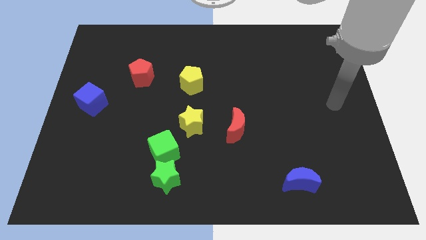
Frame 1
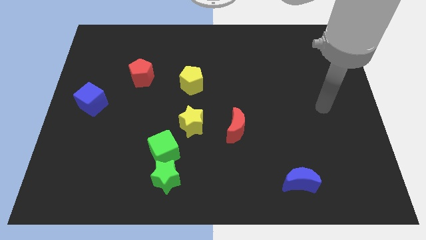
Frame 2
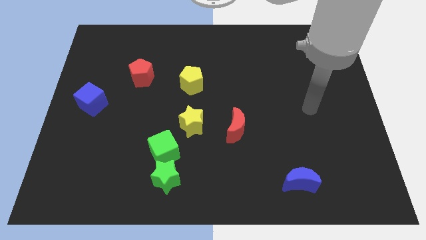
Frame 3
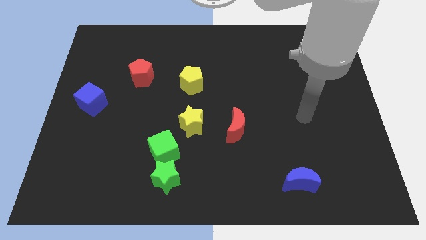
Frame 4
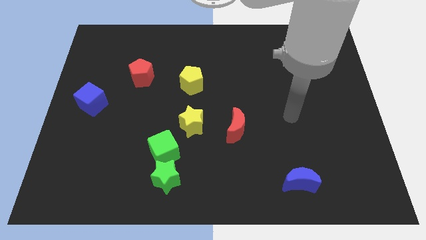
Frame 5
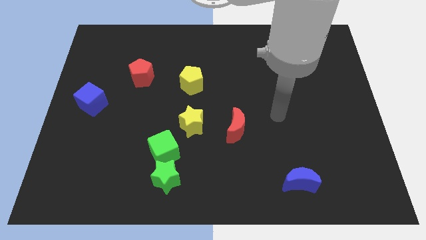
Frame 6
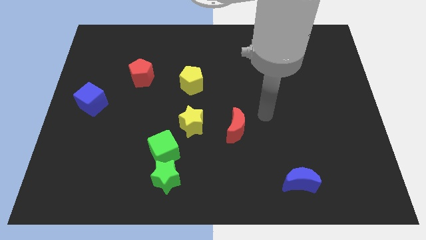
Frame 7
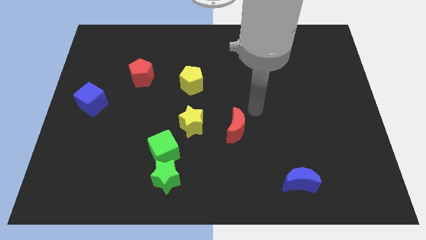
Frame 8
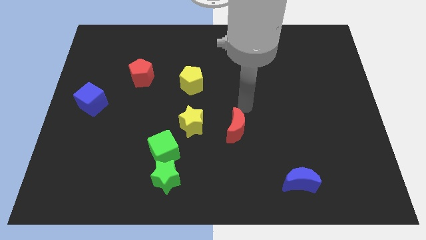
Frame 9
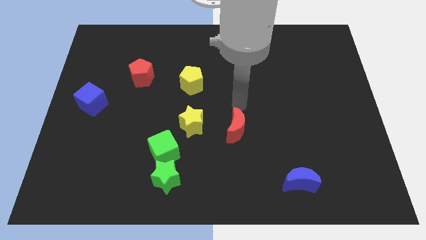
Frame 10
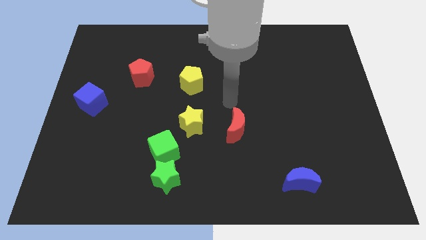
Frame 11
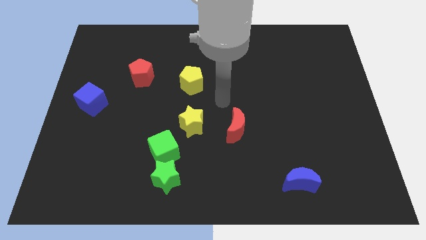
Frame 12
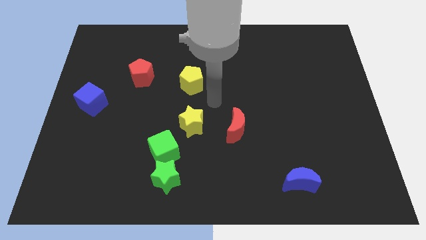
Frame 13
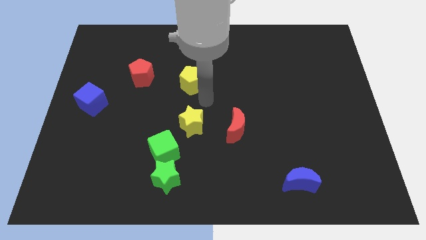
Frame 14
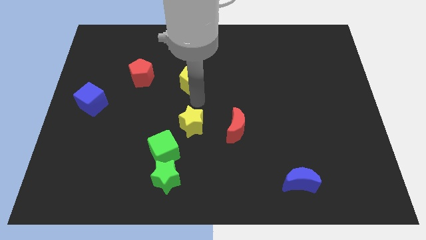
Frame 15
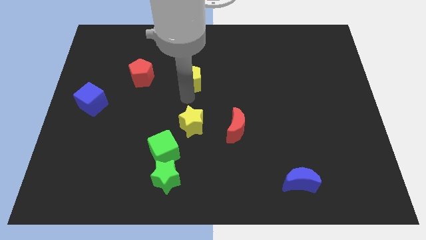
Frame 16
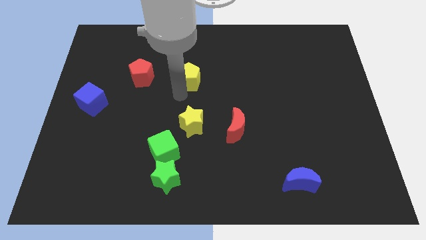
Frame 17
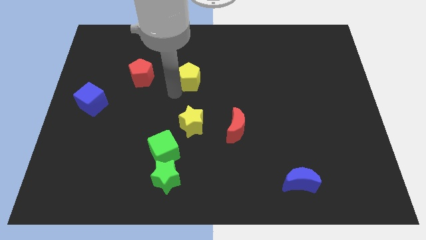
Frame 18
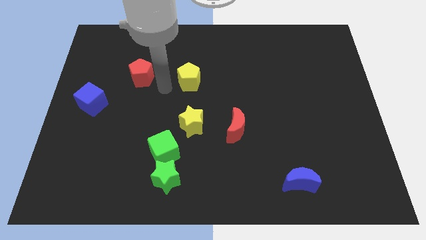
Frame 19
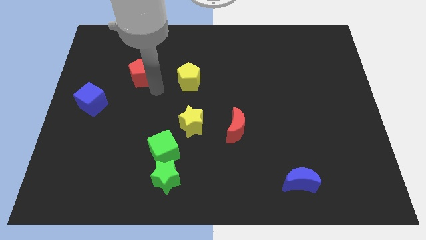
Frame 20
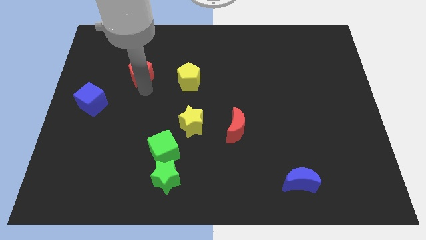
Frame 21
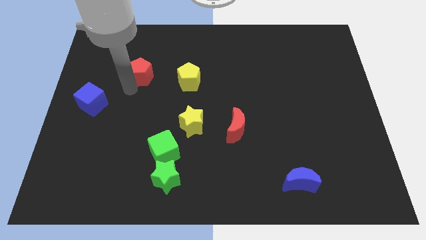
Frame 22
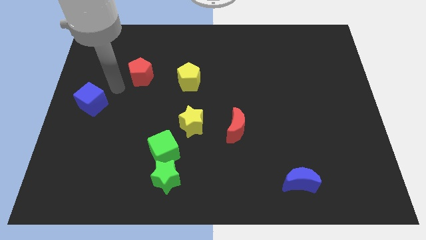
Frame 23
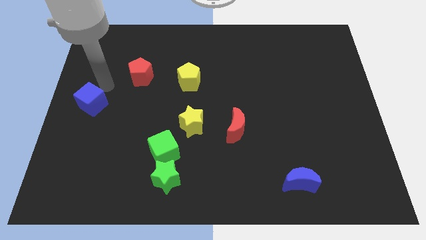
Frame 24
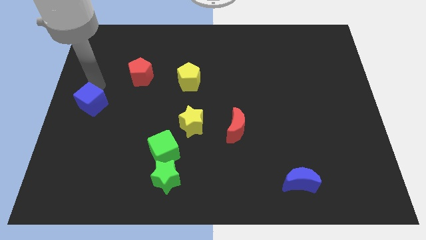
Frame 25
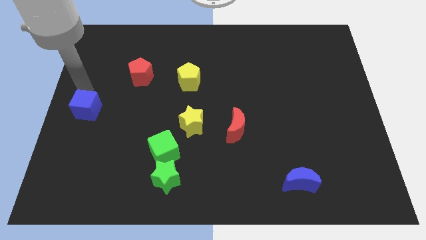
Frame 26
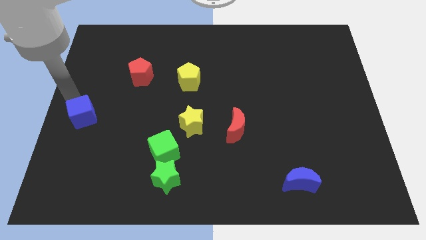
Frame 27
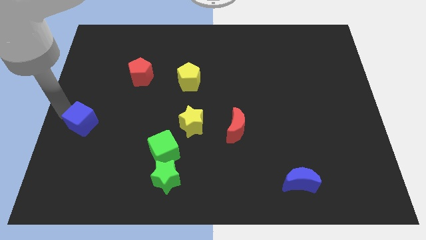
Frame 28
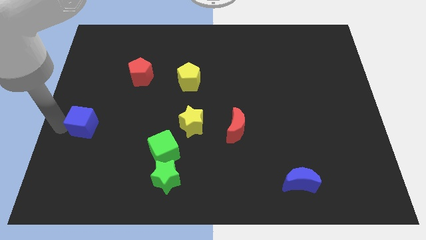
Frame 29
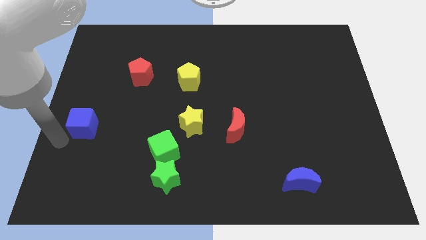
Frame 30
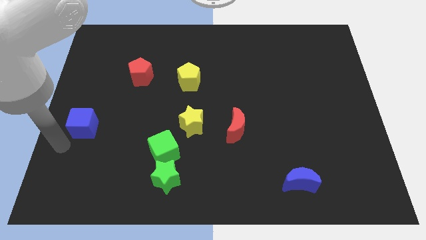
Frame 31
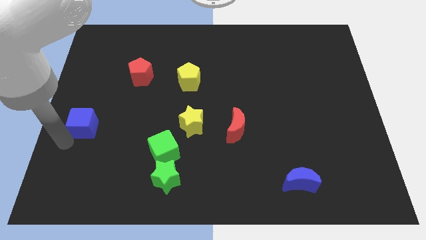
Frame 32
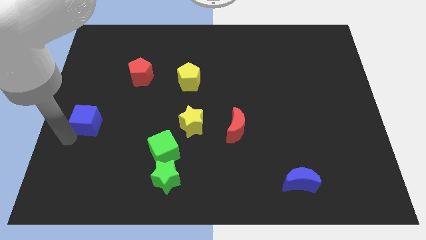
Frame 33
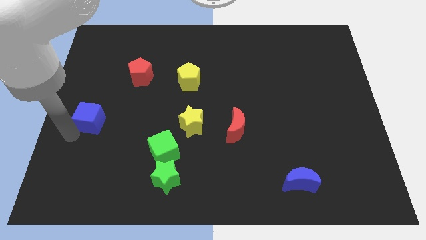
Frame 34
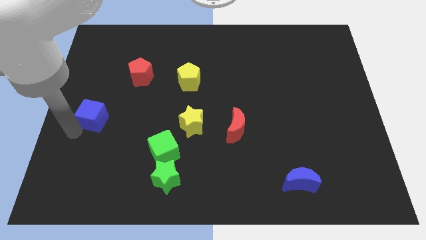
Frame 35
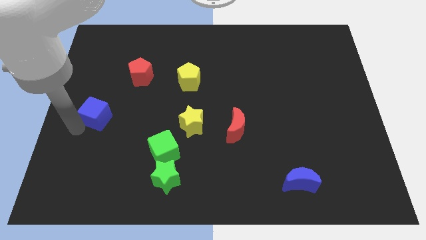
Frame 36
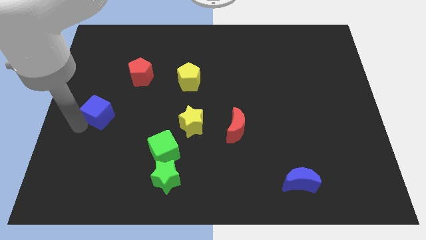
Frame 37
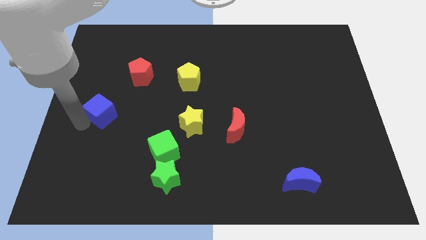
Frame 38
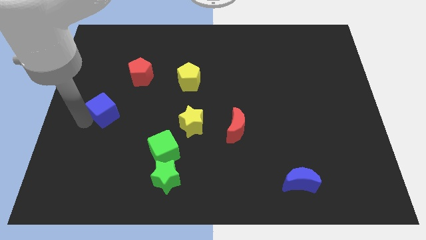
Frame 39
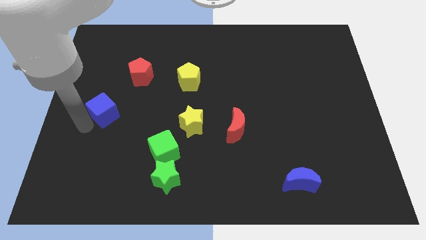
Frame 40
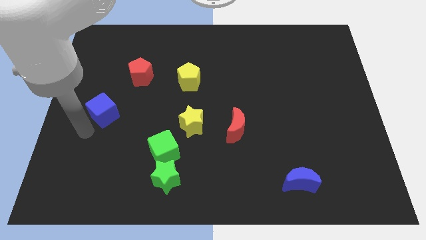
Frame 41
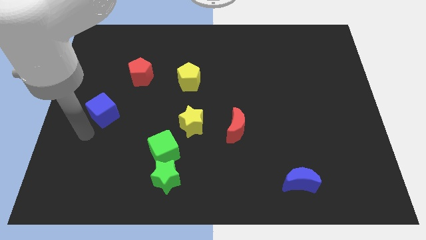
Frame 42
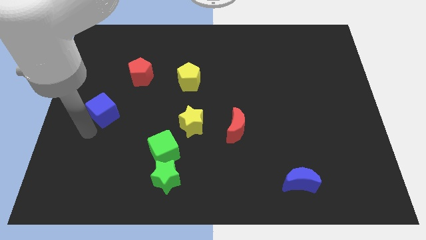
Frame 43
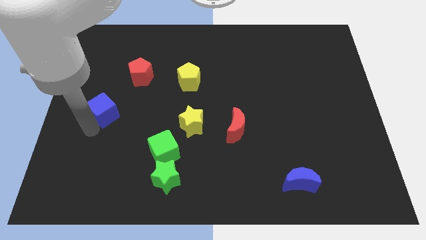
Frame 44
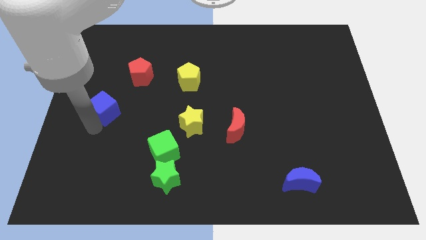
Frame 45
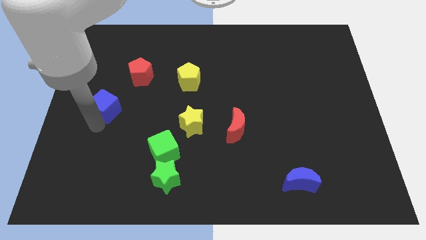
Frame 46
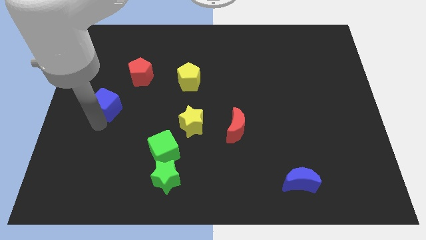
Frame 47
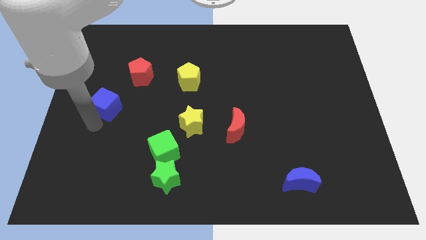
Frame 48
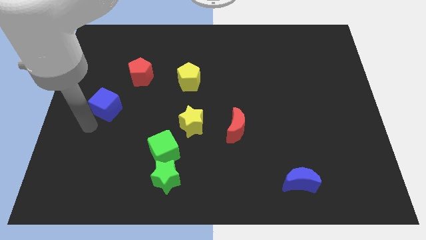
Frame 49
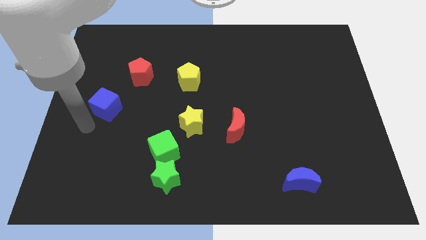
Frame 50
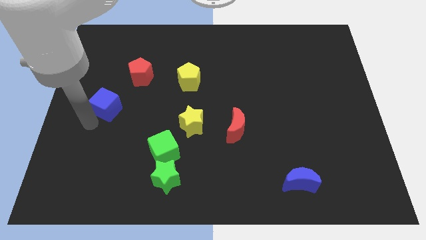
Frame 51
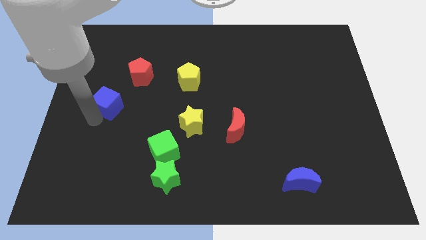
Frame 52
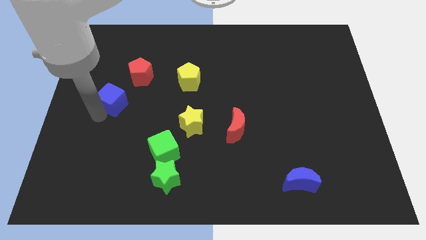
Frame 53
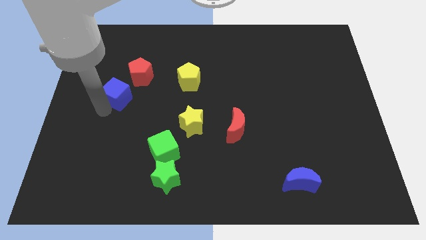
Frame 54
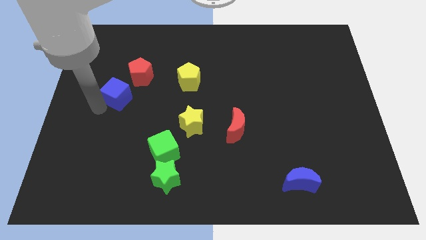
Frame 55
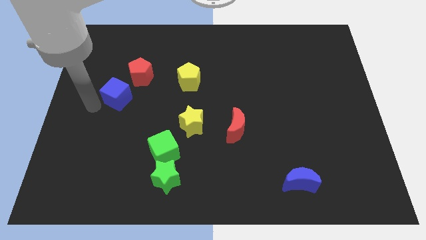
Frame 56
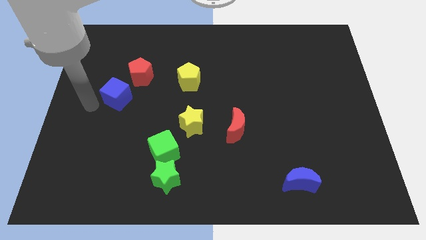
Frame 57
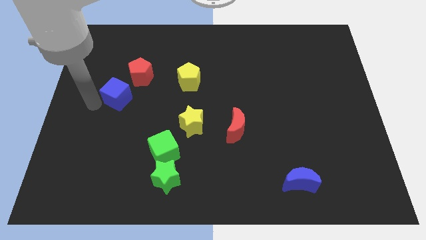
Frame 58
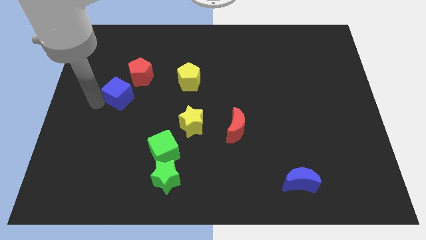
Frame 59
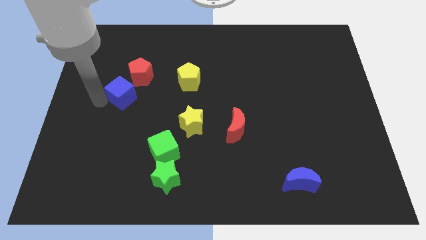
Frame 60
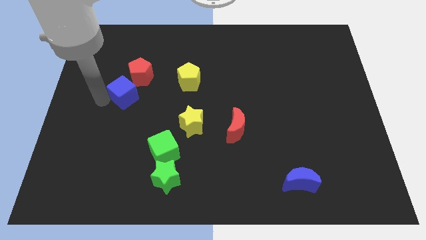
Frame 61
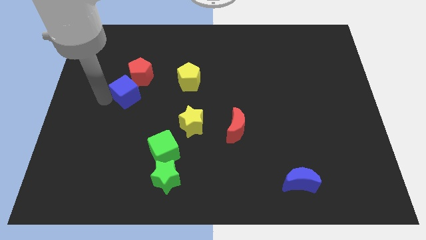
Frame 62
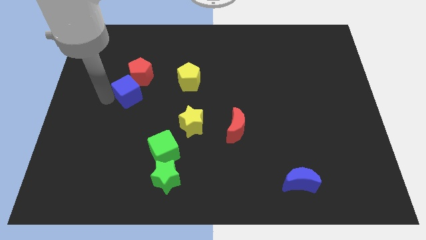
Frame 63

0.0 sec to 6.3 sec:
move the blue cube up and to the right slightly

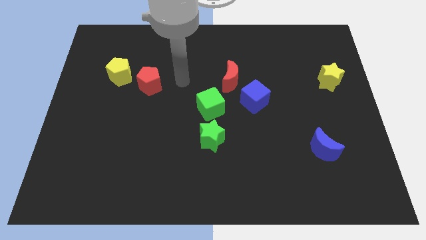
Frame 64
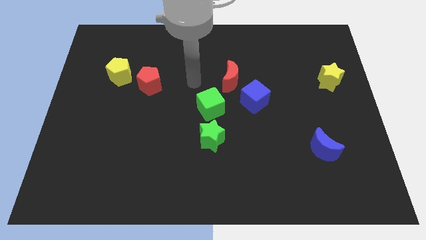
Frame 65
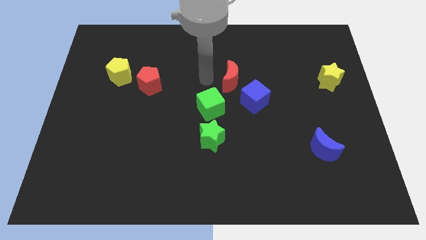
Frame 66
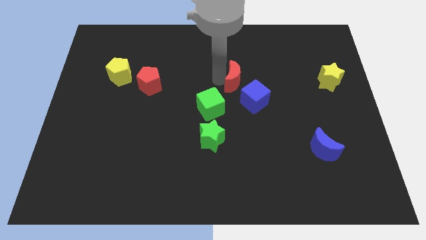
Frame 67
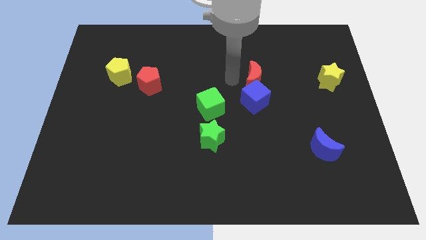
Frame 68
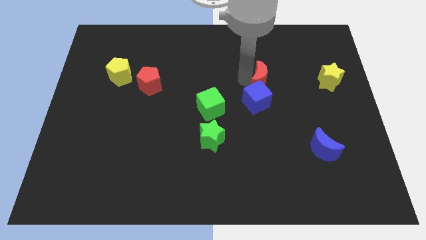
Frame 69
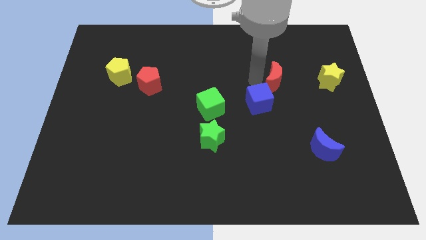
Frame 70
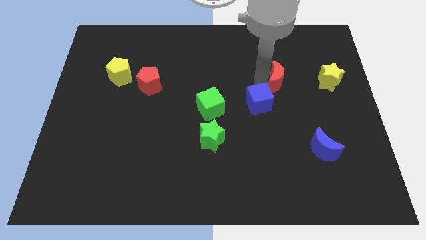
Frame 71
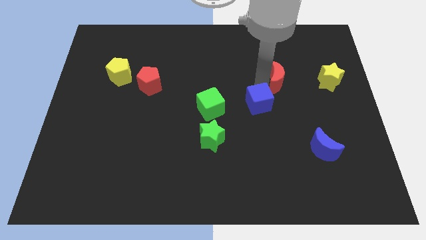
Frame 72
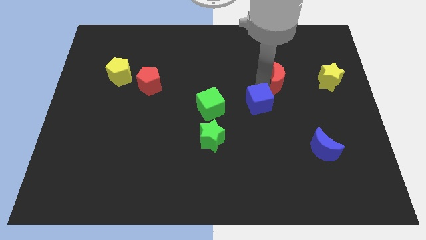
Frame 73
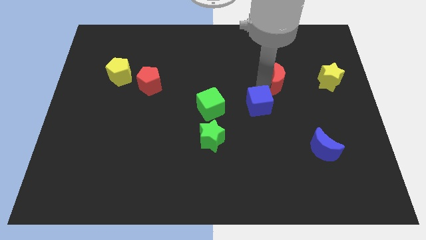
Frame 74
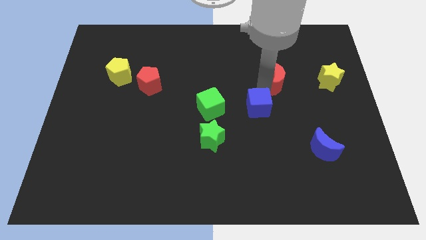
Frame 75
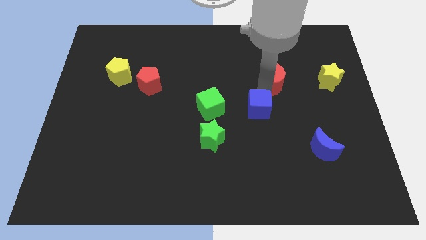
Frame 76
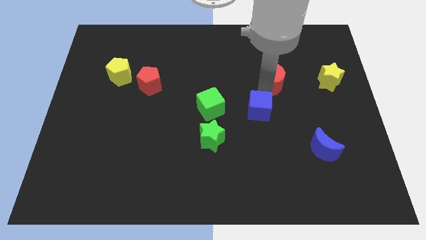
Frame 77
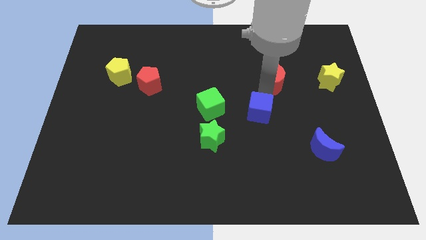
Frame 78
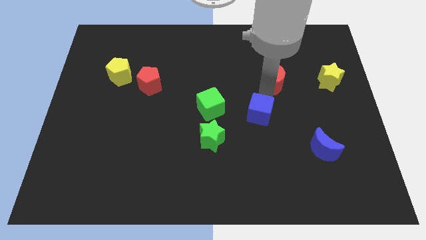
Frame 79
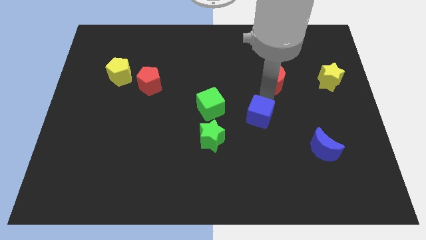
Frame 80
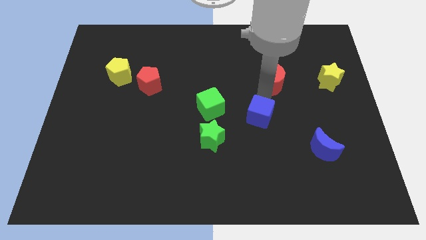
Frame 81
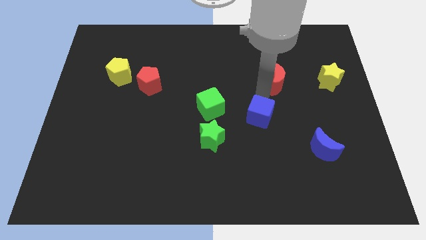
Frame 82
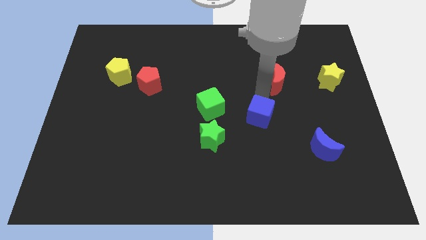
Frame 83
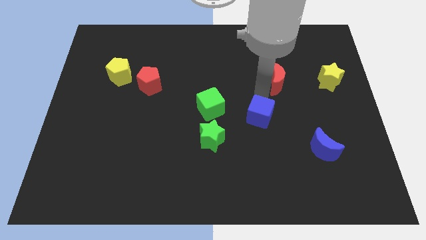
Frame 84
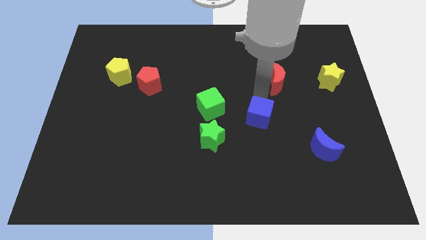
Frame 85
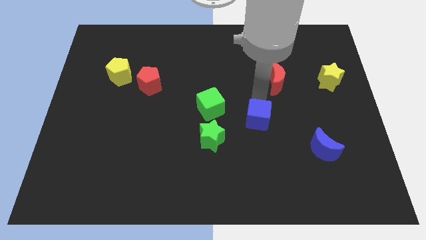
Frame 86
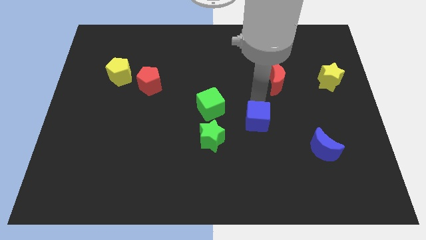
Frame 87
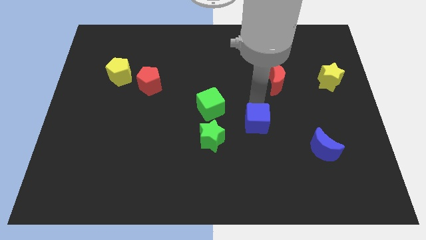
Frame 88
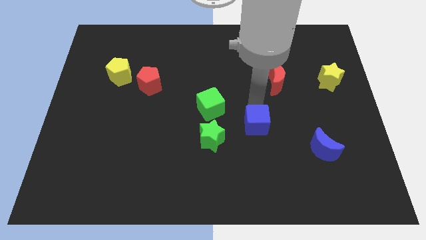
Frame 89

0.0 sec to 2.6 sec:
move the blue cube slightly down
